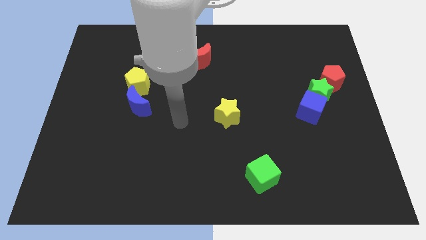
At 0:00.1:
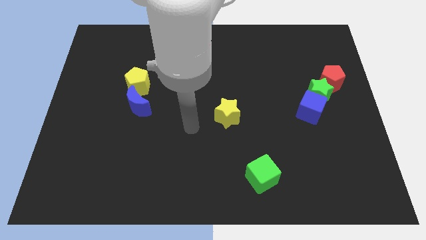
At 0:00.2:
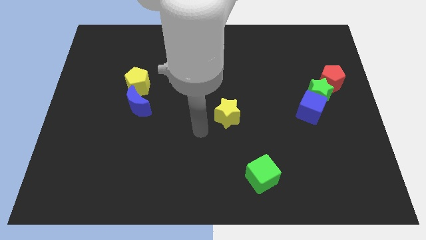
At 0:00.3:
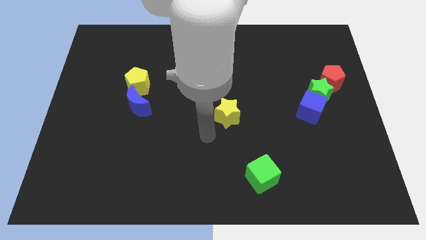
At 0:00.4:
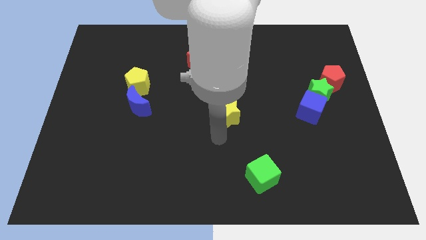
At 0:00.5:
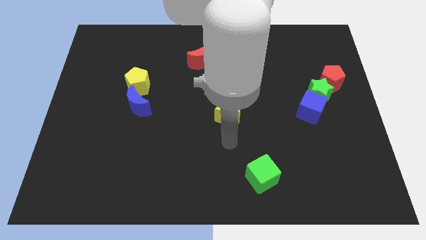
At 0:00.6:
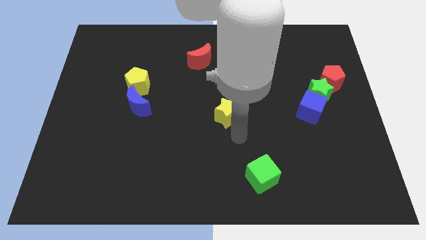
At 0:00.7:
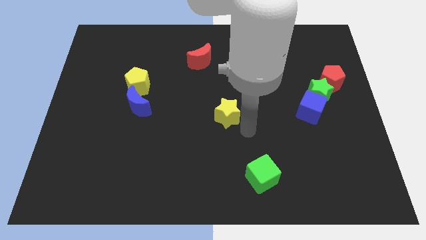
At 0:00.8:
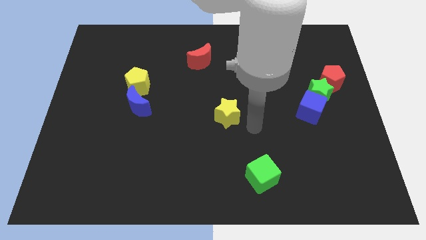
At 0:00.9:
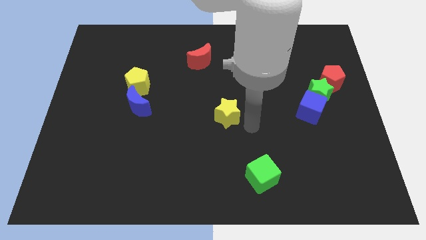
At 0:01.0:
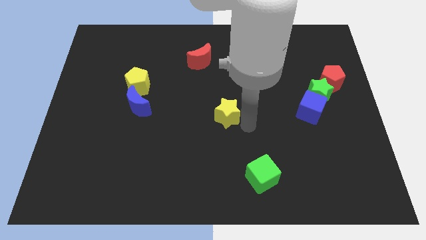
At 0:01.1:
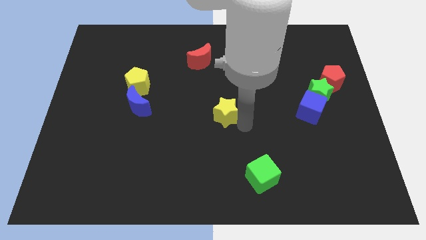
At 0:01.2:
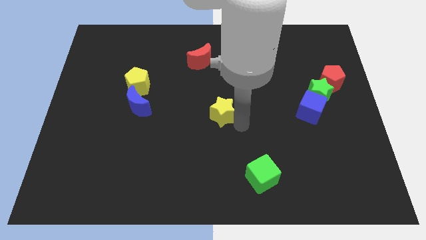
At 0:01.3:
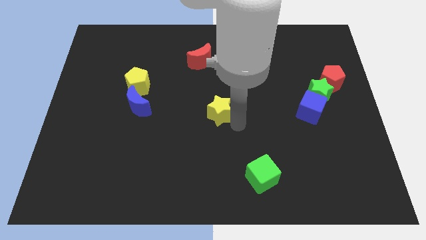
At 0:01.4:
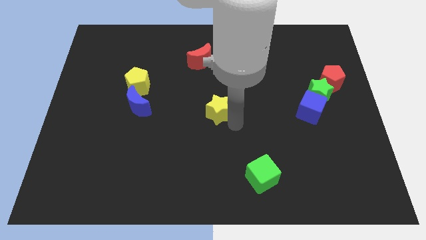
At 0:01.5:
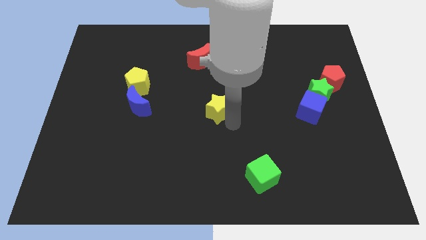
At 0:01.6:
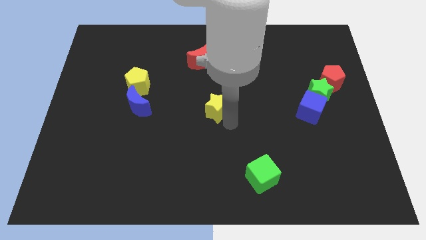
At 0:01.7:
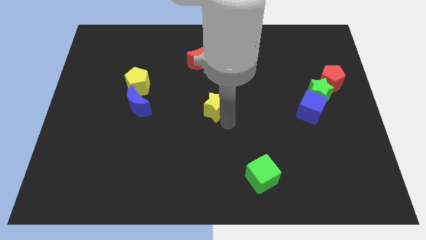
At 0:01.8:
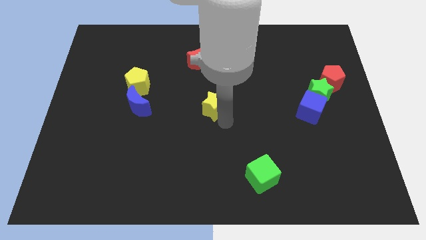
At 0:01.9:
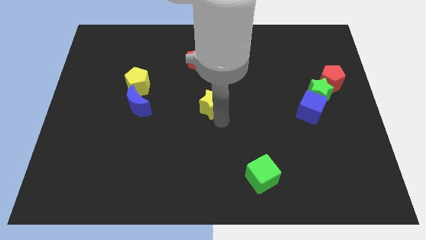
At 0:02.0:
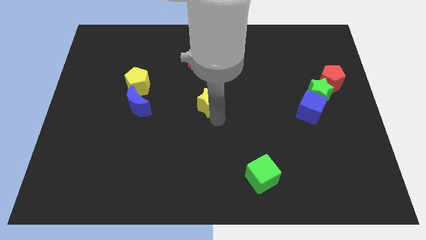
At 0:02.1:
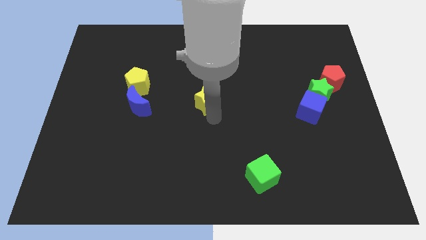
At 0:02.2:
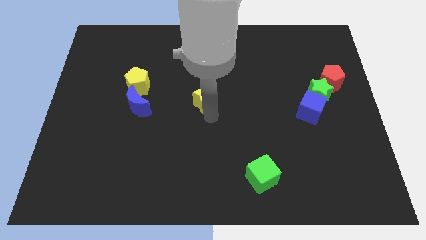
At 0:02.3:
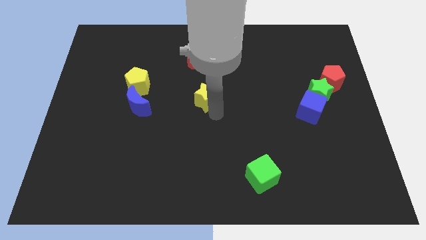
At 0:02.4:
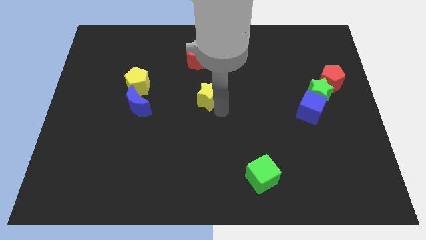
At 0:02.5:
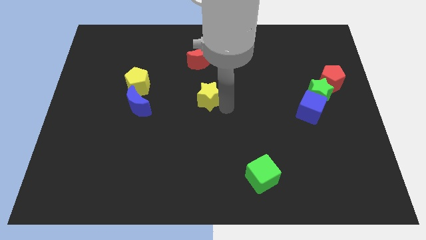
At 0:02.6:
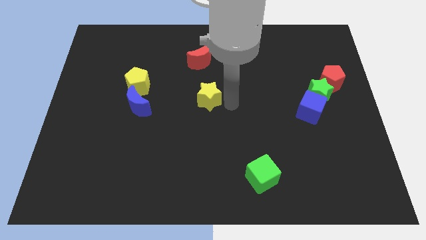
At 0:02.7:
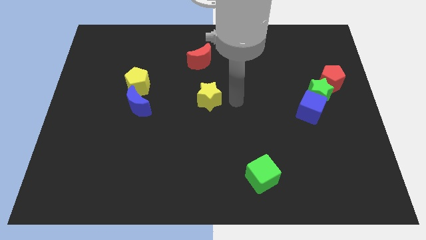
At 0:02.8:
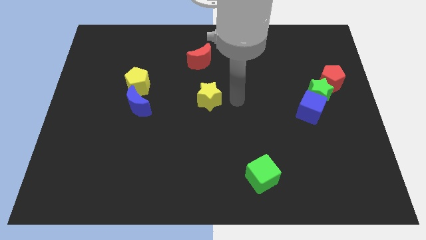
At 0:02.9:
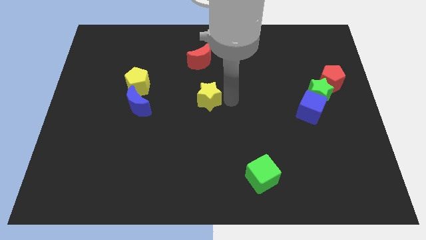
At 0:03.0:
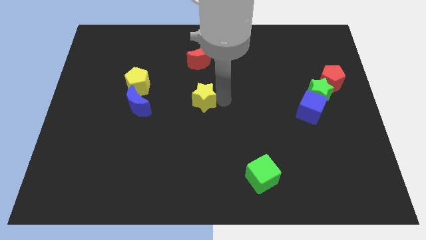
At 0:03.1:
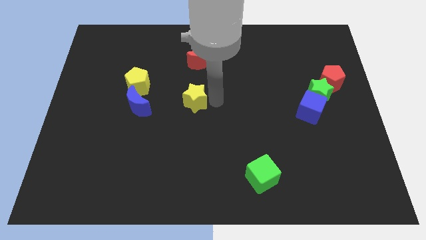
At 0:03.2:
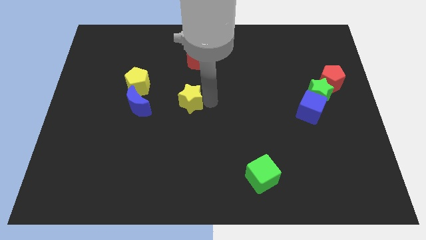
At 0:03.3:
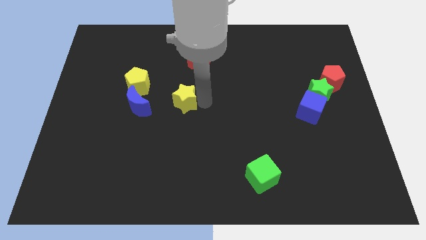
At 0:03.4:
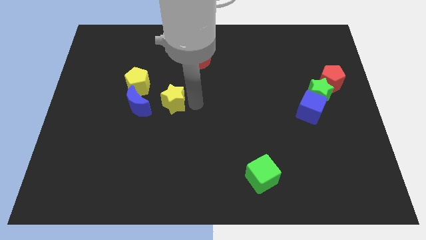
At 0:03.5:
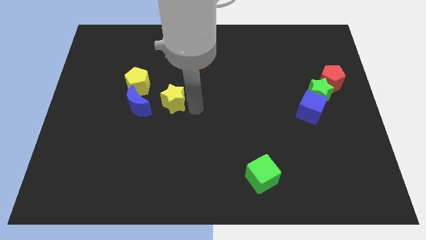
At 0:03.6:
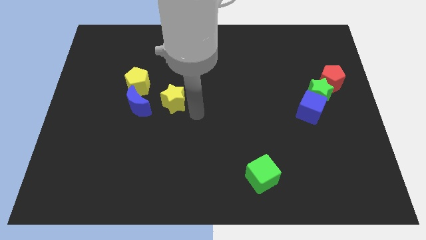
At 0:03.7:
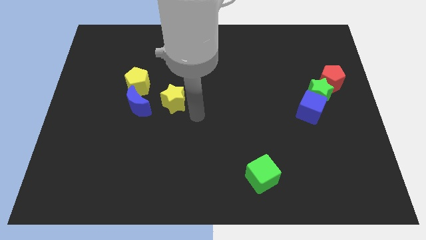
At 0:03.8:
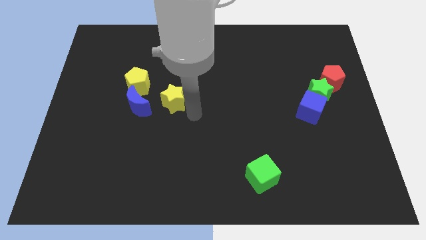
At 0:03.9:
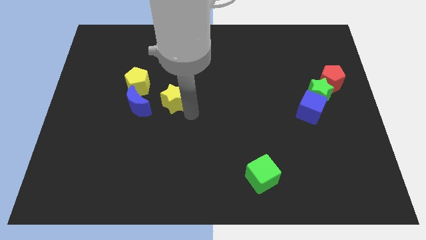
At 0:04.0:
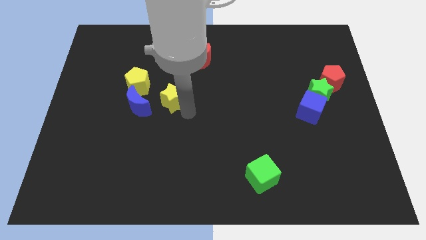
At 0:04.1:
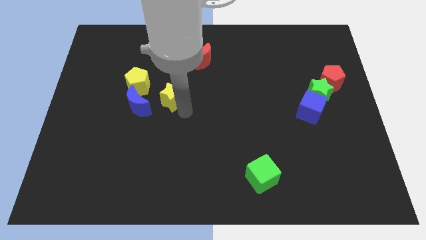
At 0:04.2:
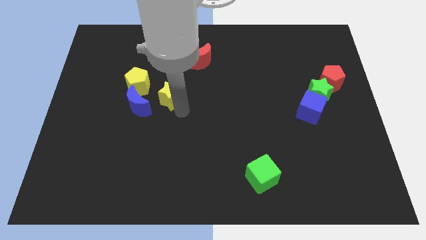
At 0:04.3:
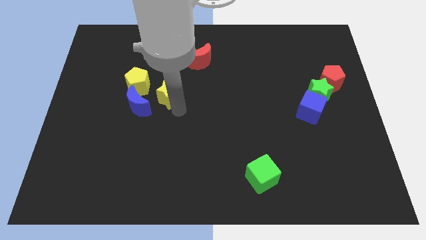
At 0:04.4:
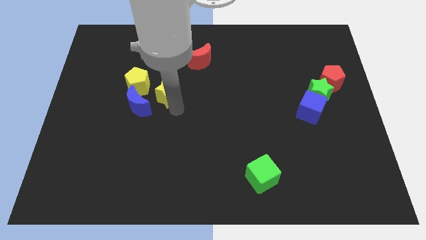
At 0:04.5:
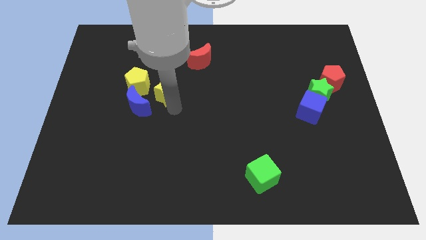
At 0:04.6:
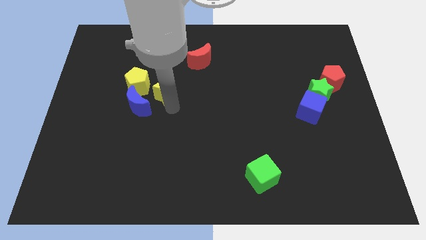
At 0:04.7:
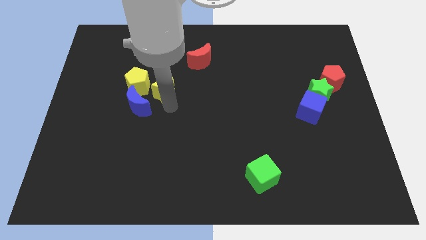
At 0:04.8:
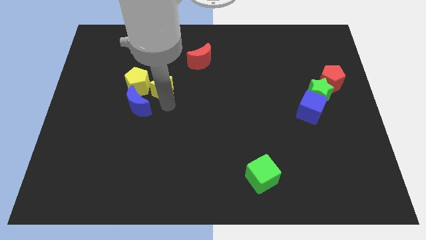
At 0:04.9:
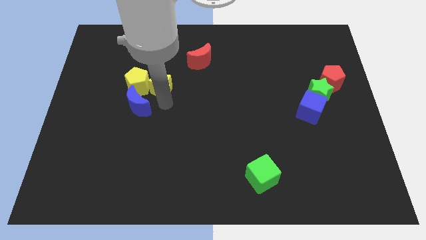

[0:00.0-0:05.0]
push the yellow star towards the yellow pentagon

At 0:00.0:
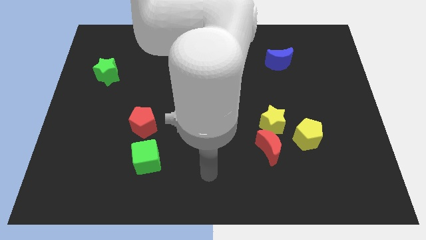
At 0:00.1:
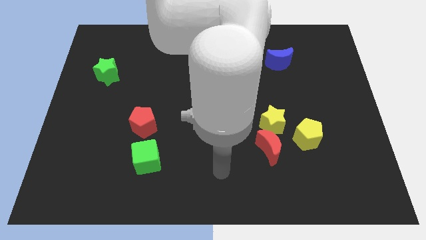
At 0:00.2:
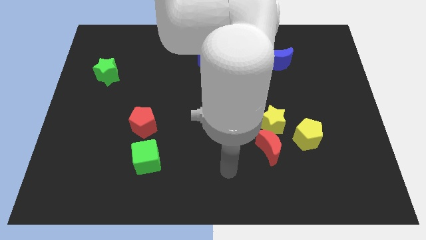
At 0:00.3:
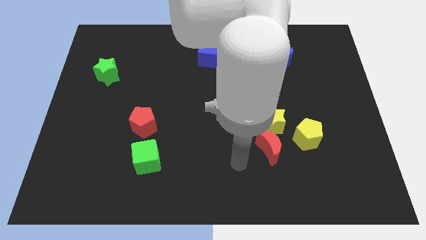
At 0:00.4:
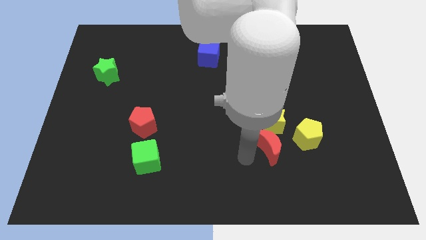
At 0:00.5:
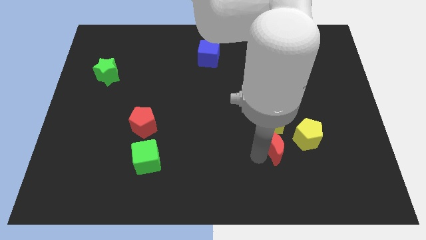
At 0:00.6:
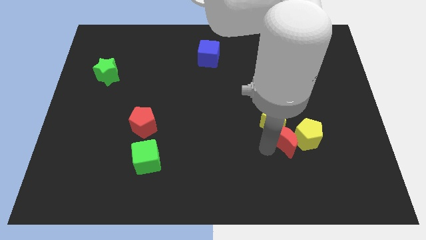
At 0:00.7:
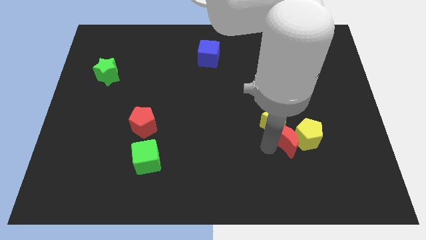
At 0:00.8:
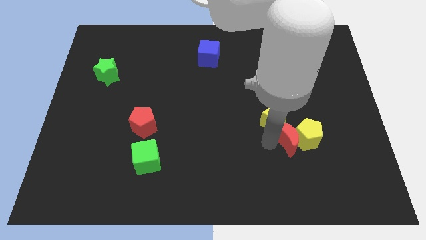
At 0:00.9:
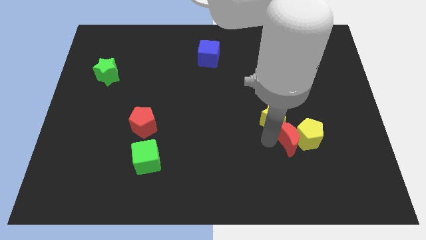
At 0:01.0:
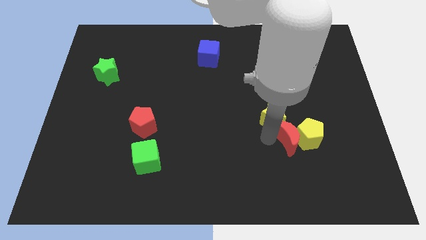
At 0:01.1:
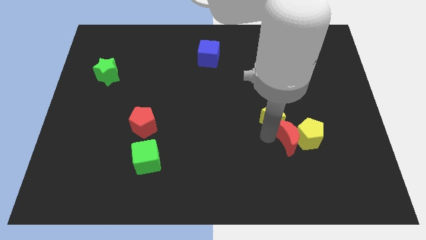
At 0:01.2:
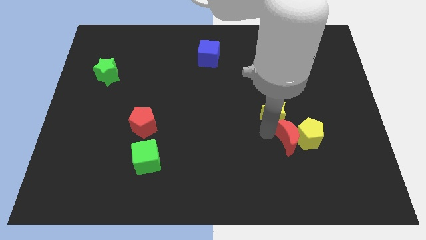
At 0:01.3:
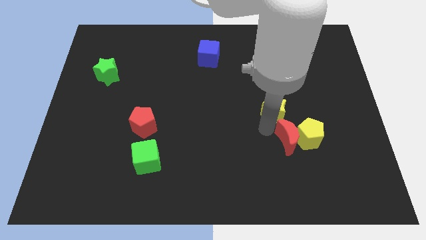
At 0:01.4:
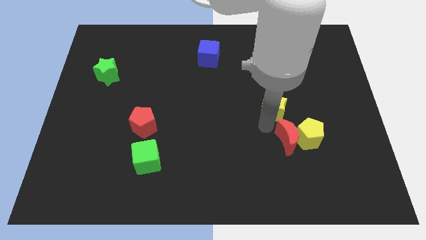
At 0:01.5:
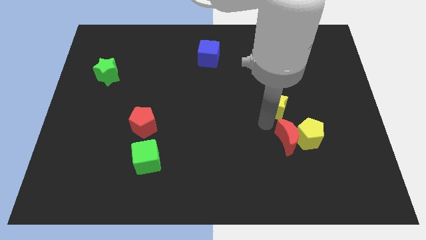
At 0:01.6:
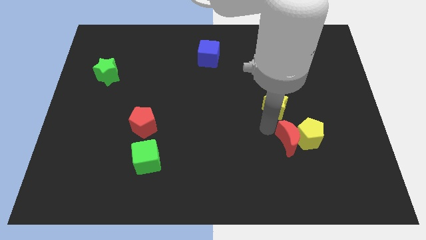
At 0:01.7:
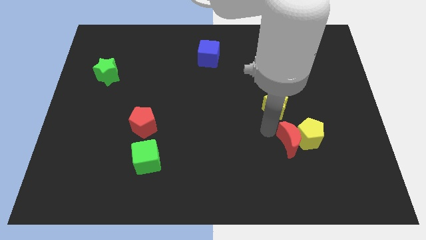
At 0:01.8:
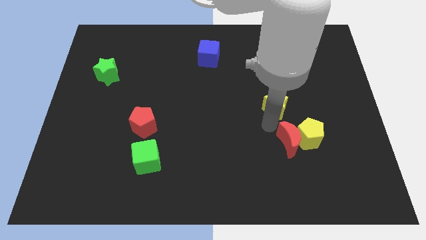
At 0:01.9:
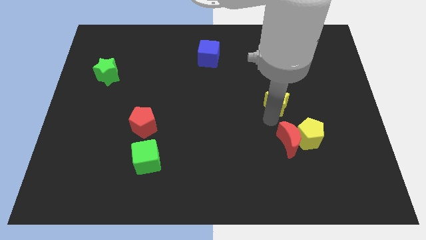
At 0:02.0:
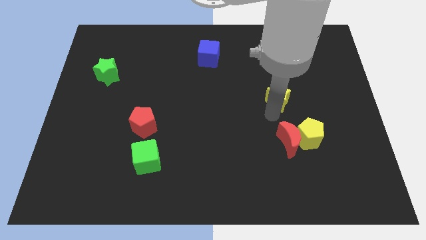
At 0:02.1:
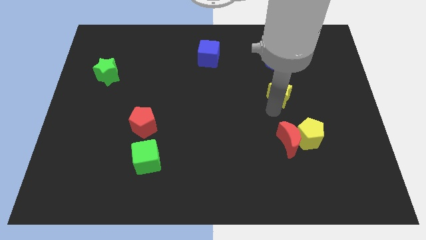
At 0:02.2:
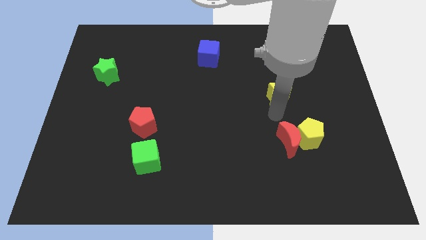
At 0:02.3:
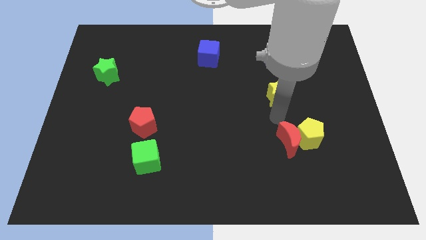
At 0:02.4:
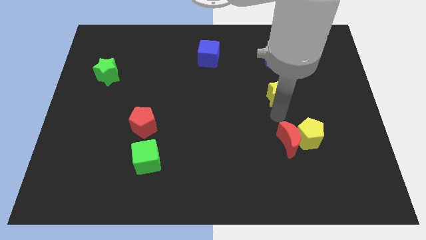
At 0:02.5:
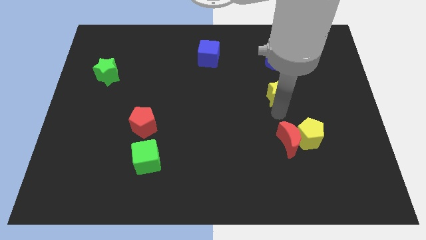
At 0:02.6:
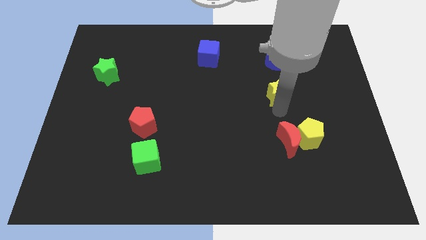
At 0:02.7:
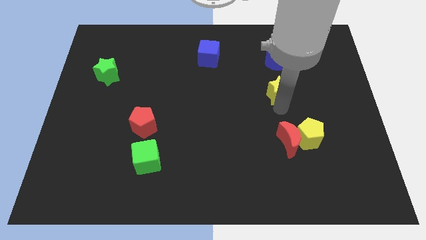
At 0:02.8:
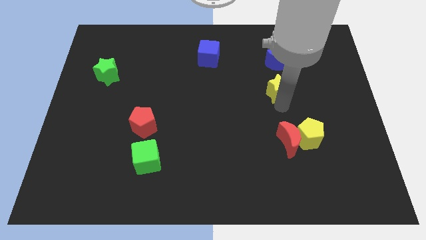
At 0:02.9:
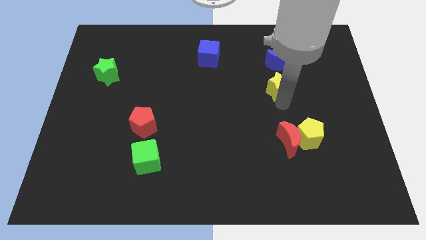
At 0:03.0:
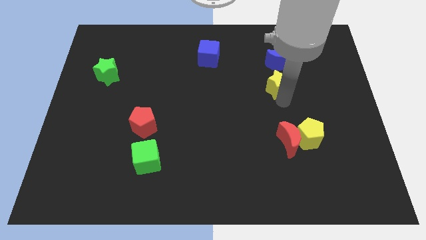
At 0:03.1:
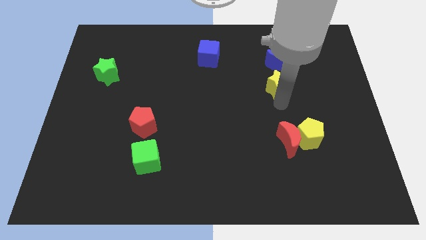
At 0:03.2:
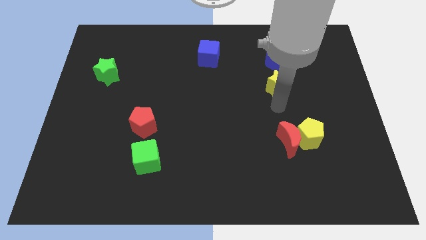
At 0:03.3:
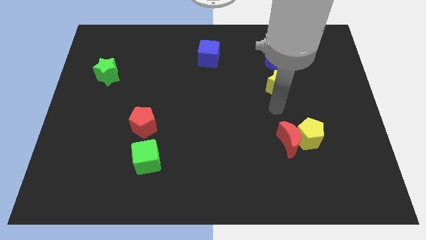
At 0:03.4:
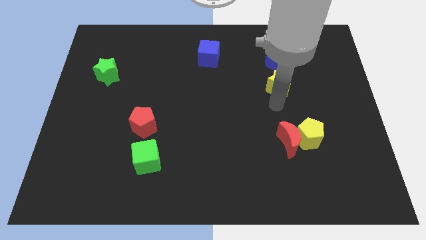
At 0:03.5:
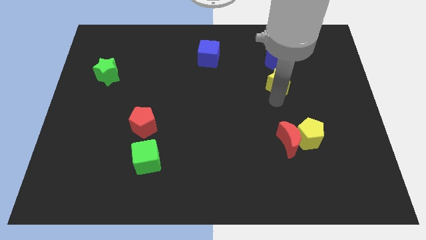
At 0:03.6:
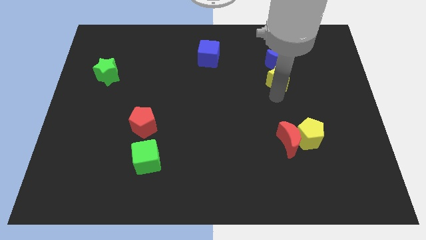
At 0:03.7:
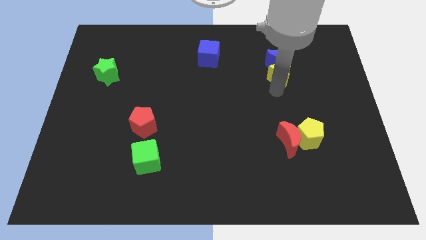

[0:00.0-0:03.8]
put the yellow star to the blue moon
